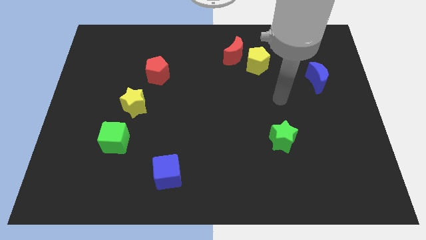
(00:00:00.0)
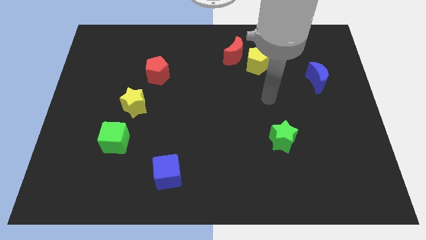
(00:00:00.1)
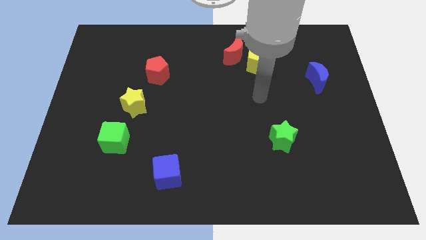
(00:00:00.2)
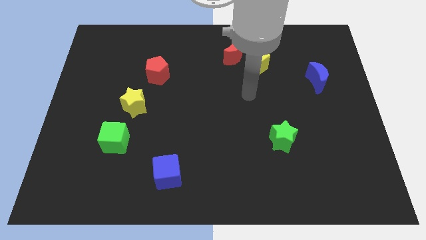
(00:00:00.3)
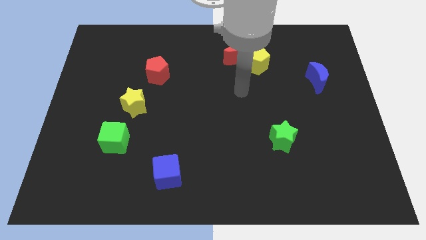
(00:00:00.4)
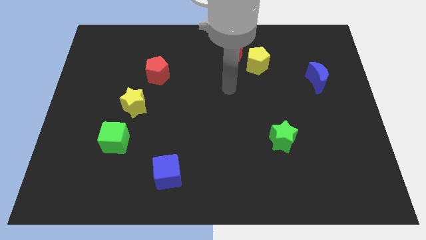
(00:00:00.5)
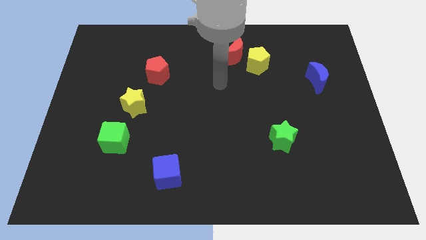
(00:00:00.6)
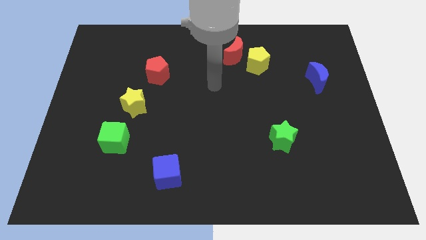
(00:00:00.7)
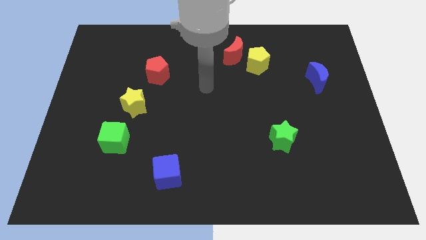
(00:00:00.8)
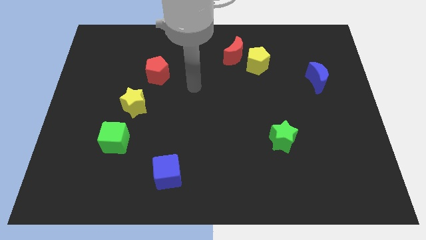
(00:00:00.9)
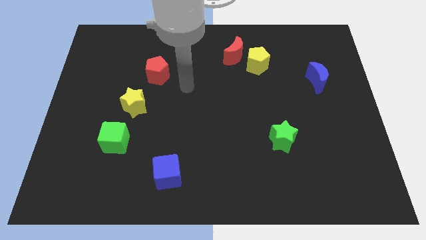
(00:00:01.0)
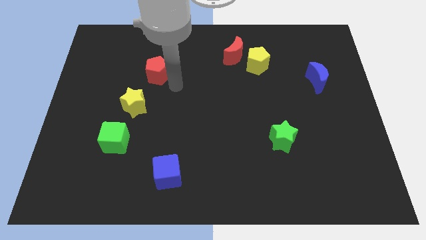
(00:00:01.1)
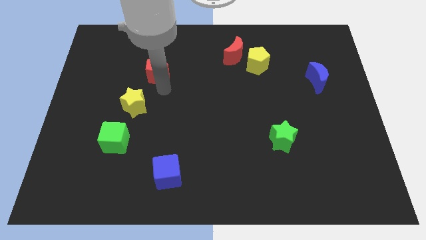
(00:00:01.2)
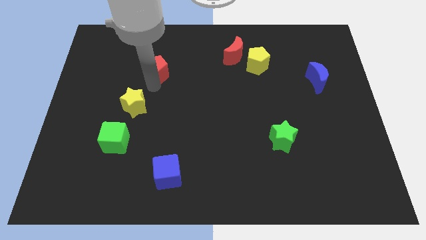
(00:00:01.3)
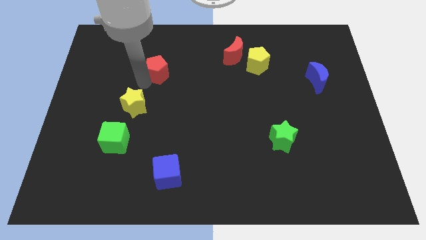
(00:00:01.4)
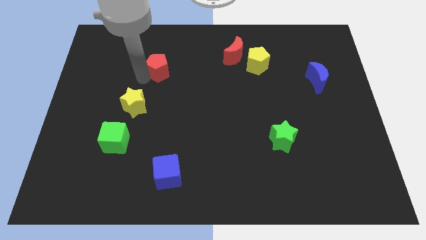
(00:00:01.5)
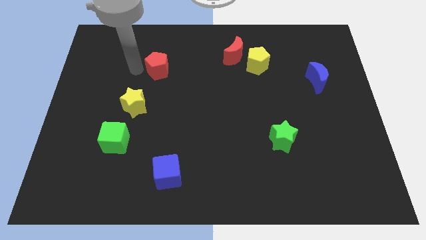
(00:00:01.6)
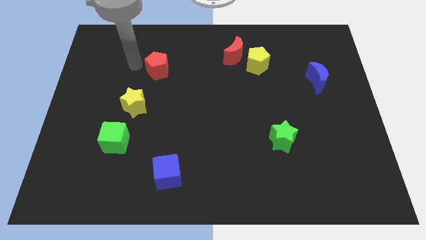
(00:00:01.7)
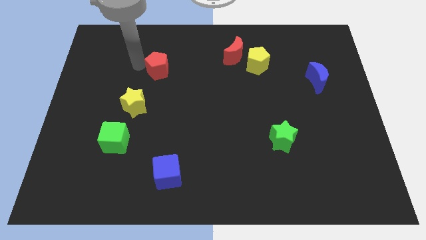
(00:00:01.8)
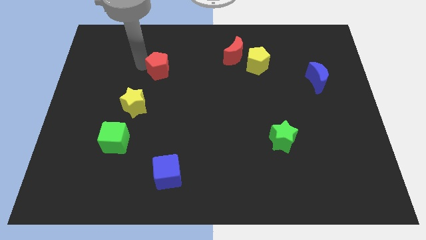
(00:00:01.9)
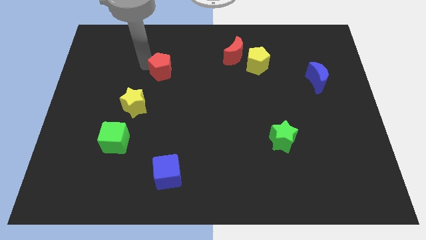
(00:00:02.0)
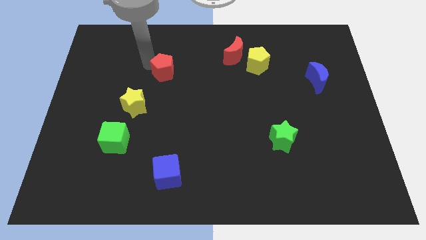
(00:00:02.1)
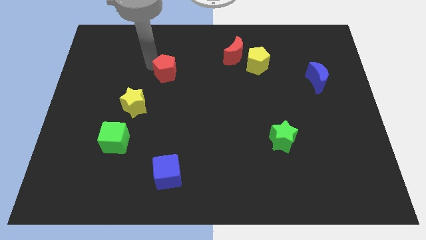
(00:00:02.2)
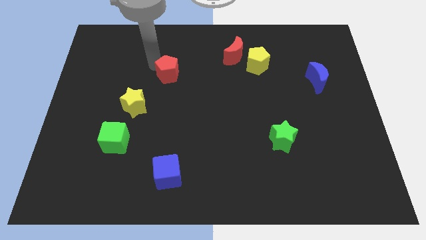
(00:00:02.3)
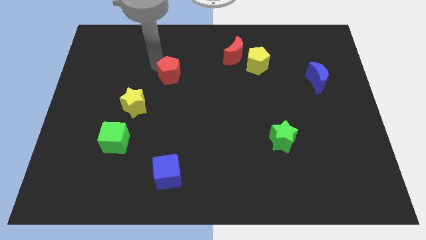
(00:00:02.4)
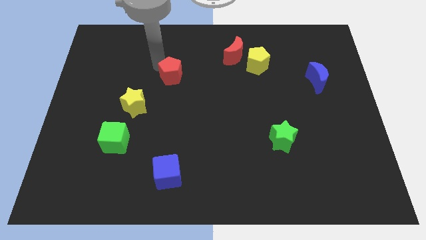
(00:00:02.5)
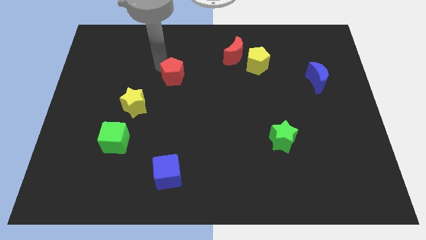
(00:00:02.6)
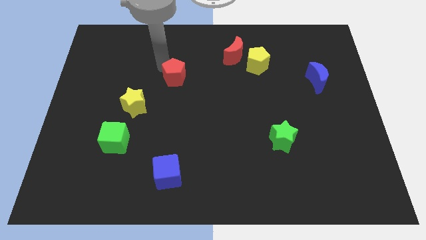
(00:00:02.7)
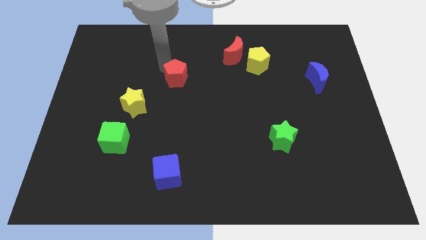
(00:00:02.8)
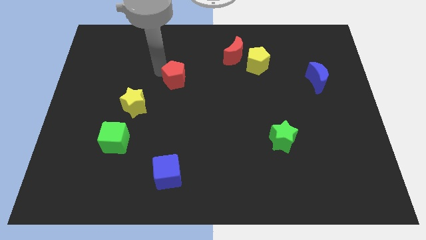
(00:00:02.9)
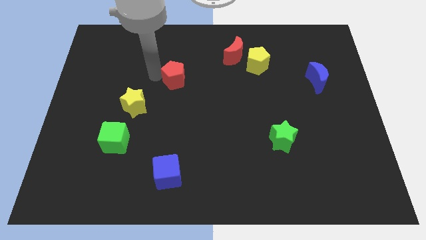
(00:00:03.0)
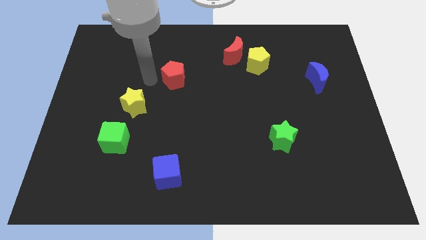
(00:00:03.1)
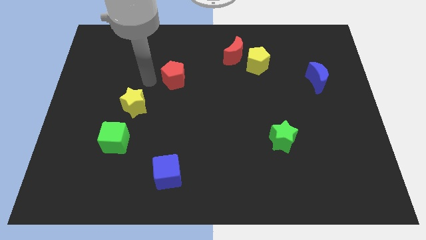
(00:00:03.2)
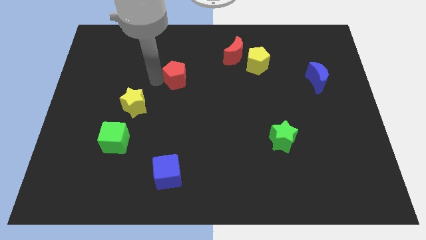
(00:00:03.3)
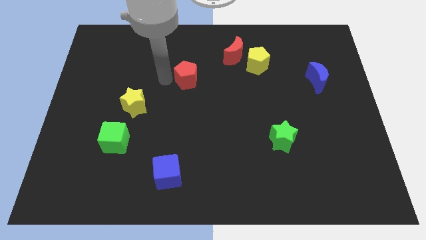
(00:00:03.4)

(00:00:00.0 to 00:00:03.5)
push the red pentagon a bit to the right

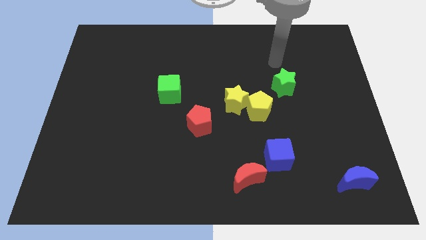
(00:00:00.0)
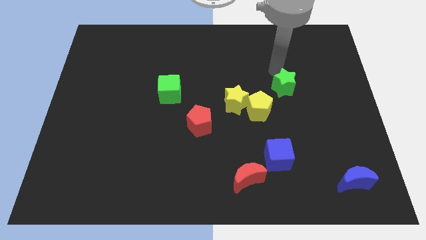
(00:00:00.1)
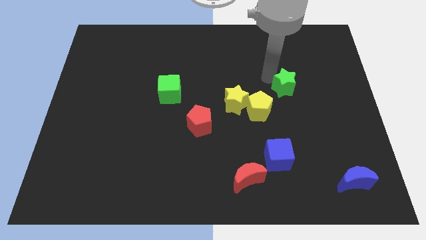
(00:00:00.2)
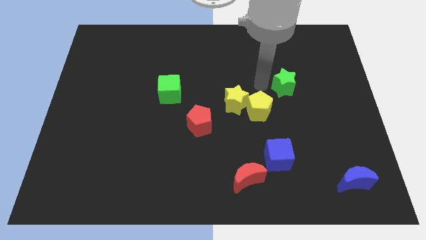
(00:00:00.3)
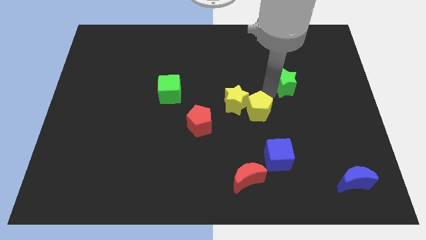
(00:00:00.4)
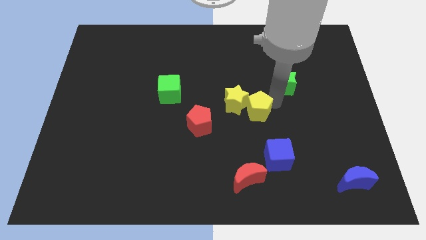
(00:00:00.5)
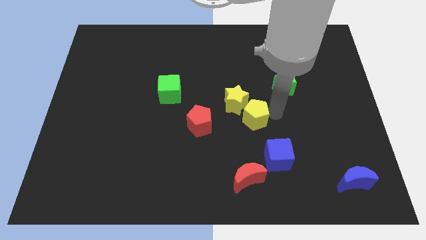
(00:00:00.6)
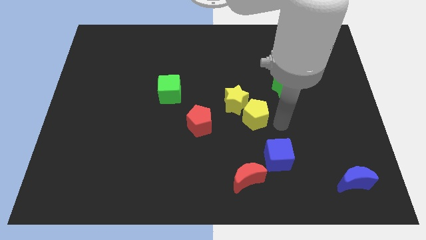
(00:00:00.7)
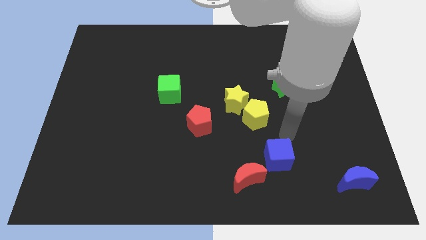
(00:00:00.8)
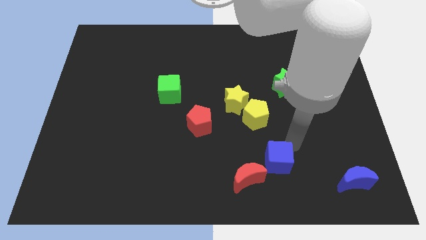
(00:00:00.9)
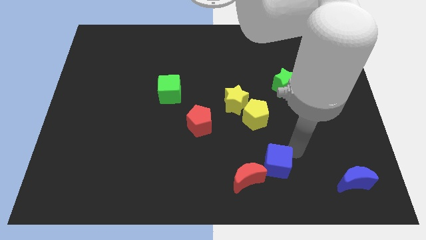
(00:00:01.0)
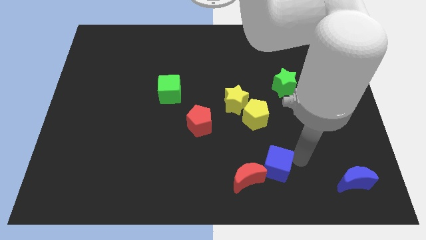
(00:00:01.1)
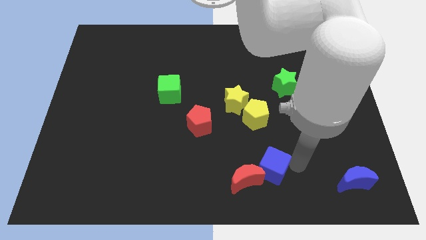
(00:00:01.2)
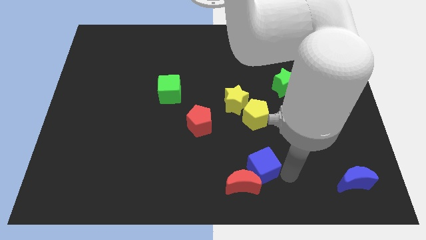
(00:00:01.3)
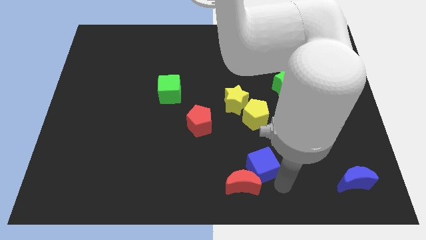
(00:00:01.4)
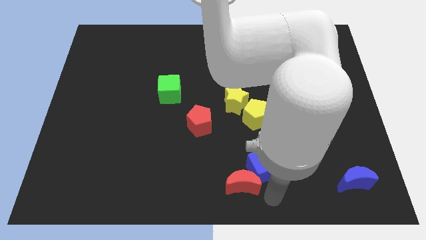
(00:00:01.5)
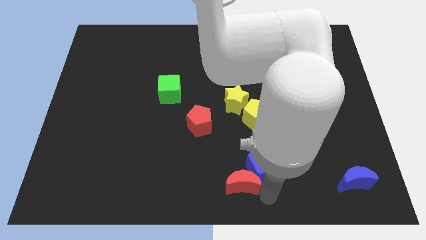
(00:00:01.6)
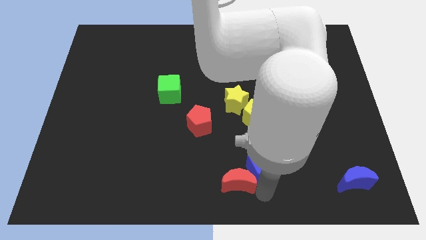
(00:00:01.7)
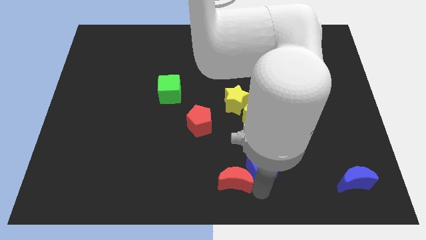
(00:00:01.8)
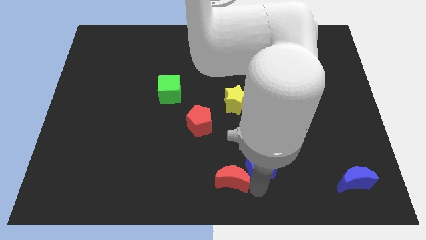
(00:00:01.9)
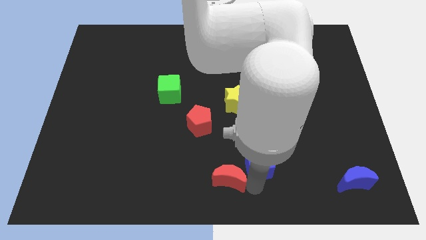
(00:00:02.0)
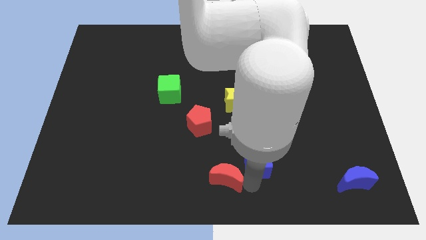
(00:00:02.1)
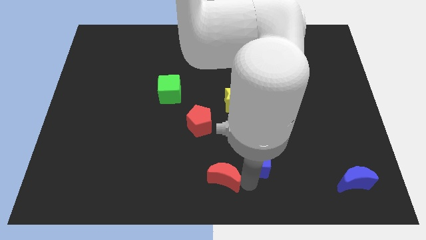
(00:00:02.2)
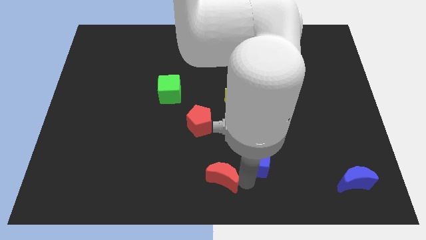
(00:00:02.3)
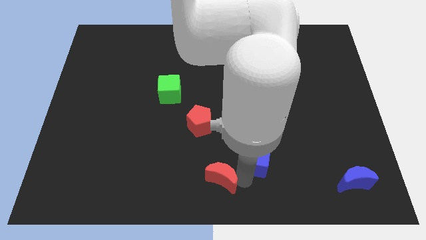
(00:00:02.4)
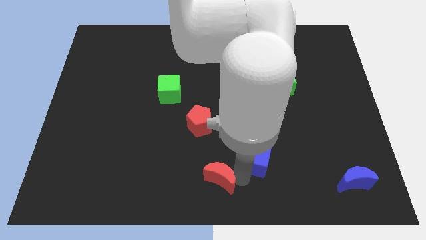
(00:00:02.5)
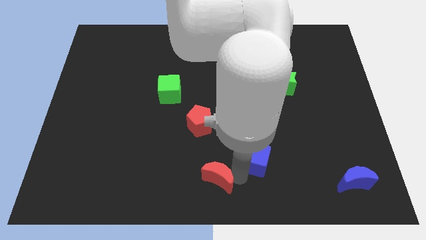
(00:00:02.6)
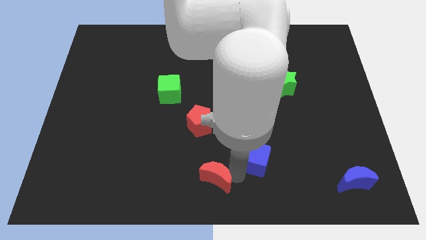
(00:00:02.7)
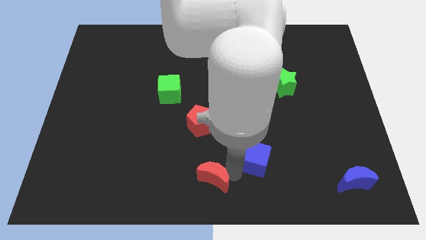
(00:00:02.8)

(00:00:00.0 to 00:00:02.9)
slide the red moon a little bit to the left

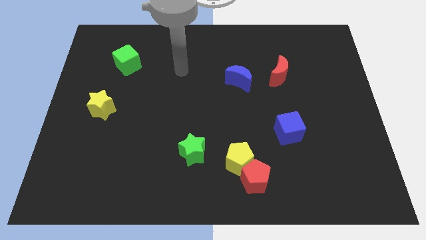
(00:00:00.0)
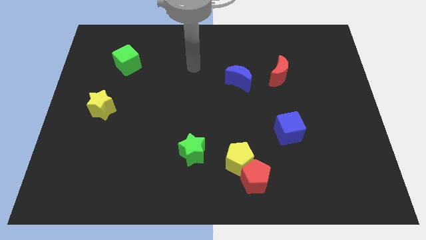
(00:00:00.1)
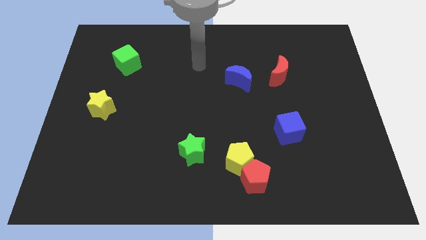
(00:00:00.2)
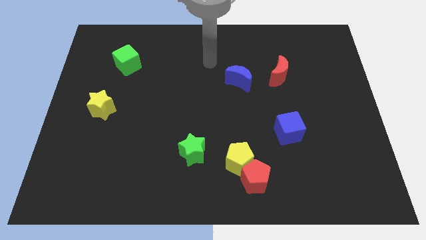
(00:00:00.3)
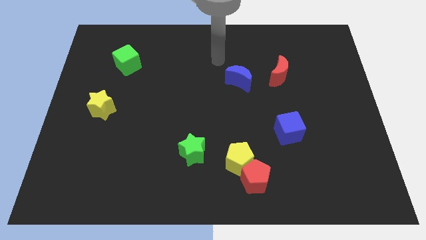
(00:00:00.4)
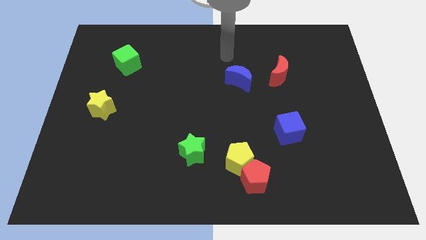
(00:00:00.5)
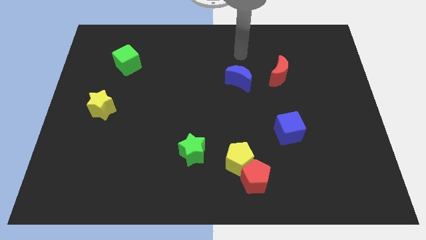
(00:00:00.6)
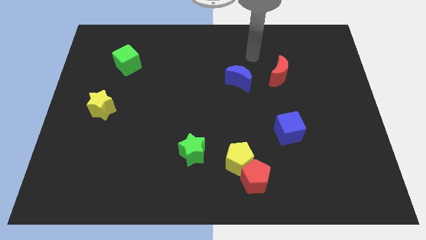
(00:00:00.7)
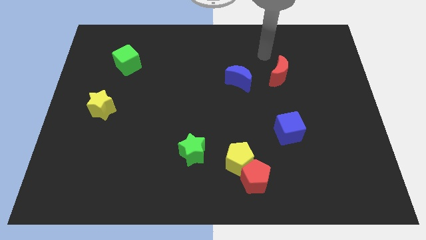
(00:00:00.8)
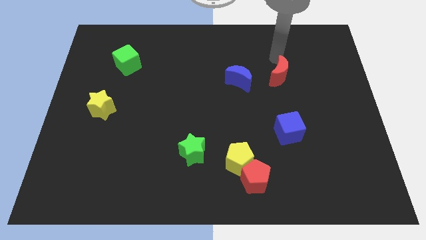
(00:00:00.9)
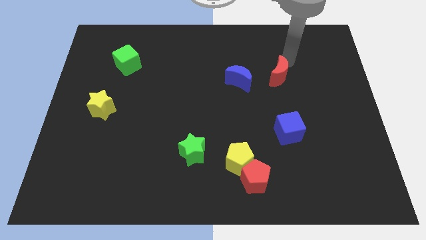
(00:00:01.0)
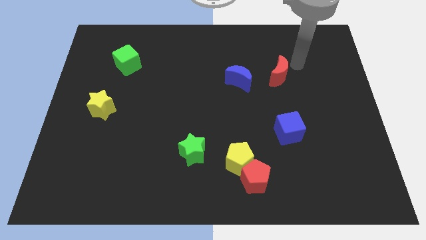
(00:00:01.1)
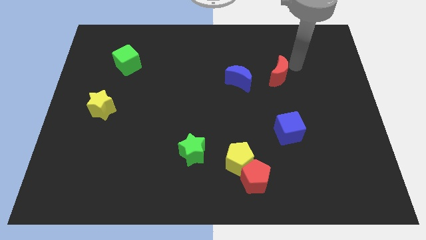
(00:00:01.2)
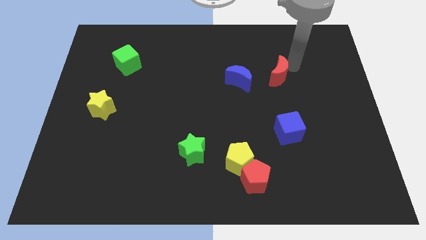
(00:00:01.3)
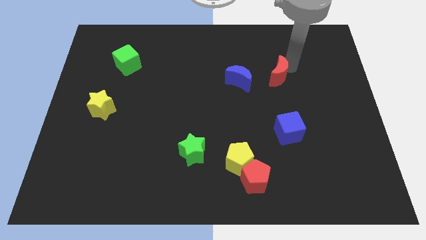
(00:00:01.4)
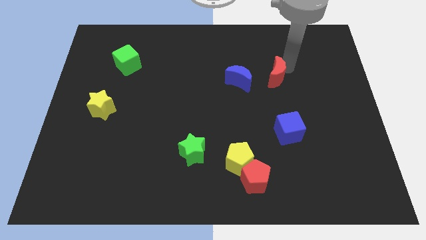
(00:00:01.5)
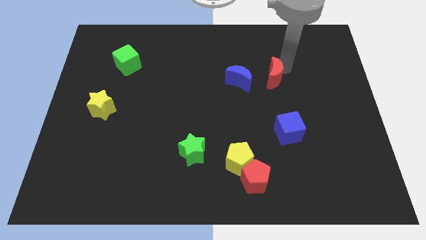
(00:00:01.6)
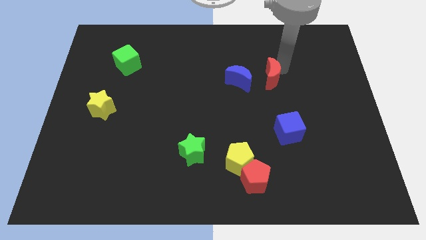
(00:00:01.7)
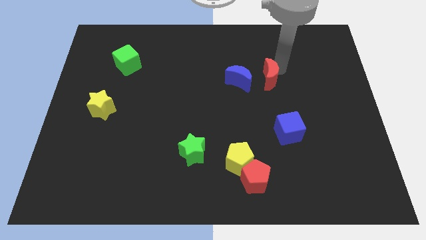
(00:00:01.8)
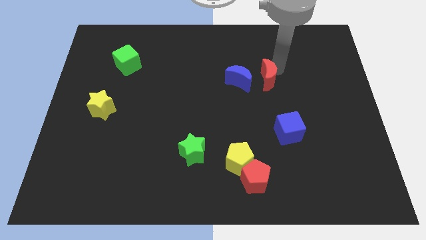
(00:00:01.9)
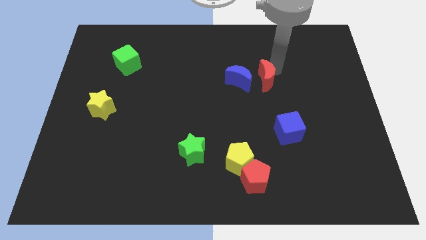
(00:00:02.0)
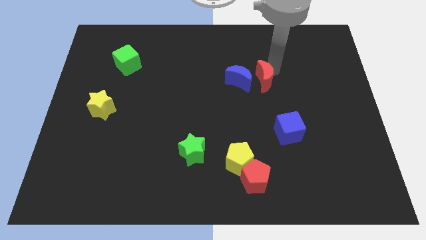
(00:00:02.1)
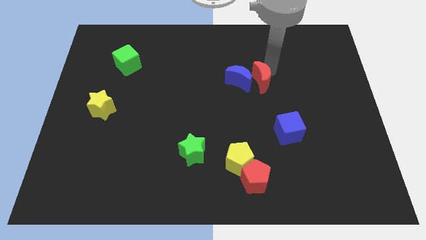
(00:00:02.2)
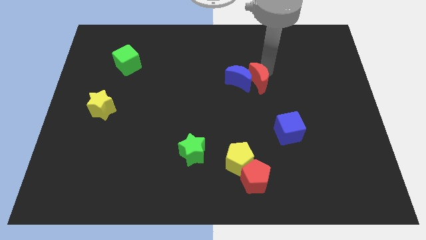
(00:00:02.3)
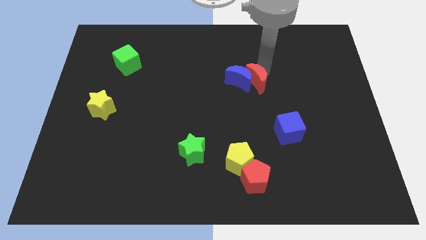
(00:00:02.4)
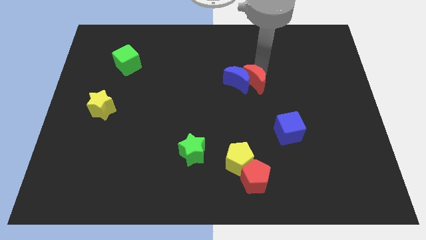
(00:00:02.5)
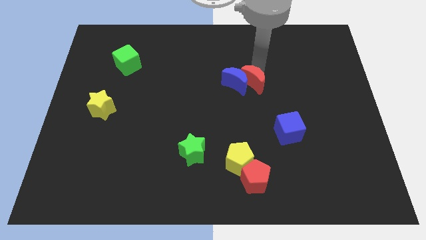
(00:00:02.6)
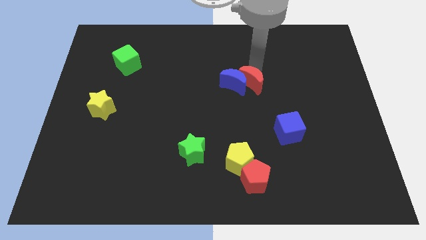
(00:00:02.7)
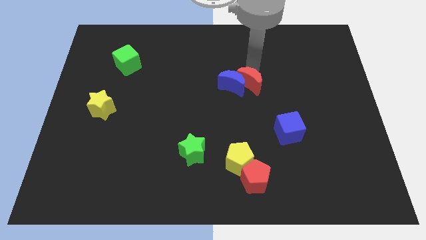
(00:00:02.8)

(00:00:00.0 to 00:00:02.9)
slide the red moon a little bit down and then to the left
